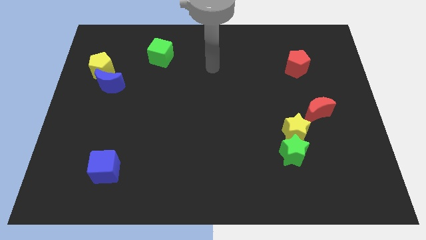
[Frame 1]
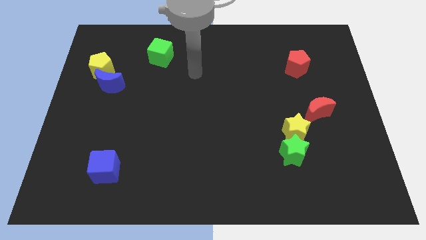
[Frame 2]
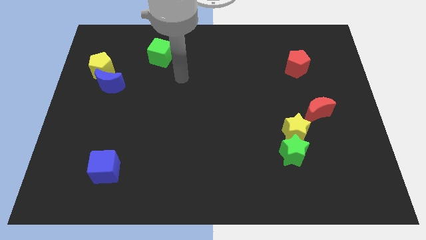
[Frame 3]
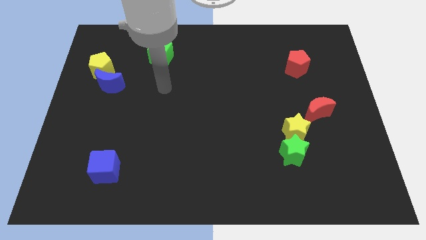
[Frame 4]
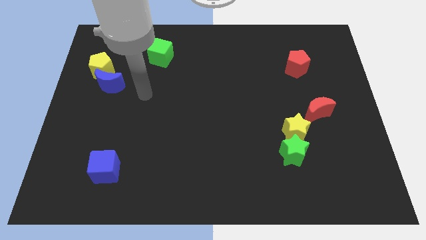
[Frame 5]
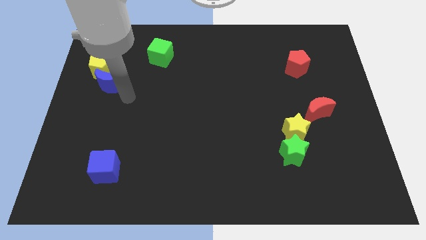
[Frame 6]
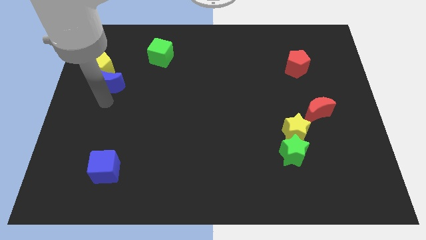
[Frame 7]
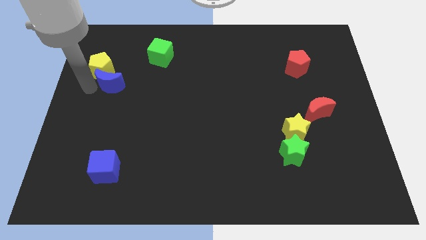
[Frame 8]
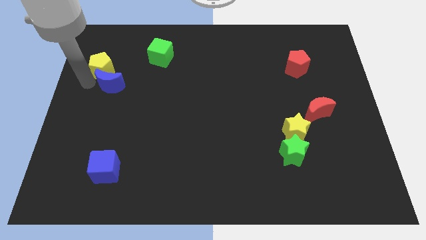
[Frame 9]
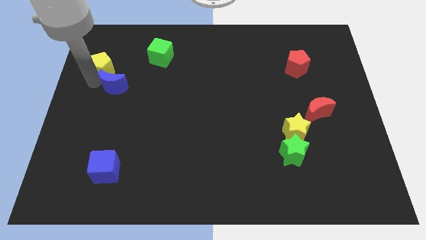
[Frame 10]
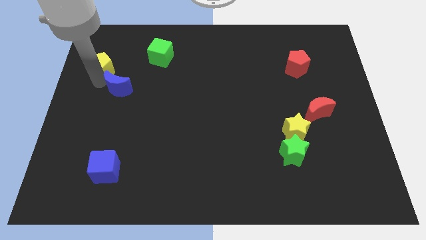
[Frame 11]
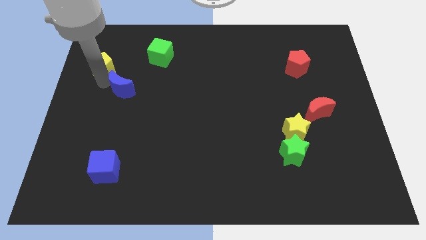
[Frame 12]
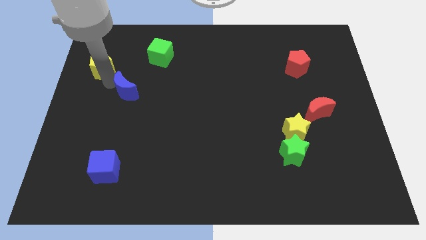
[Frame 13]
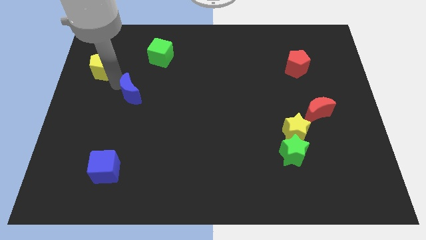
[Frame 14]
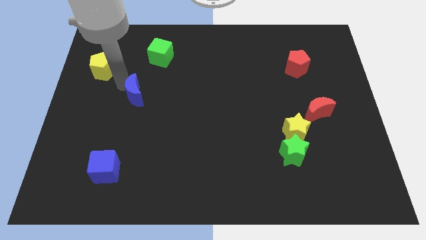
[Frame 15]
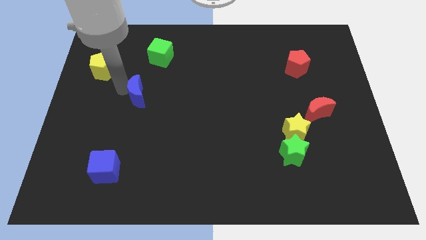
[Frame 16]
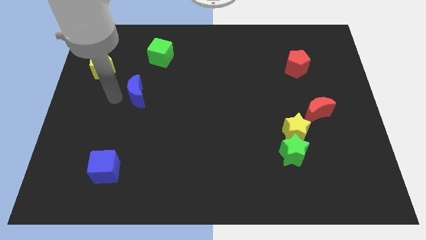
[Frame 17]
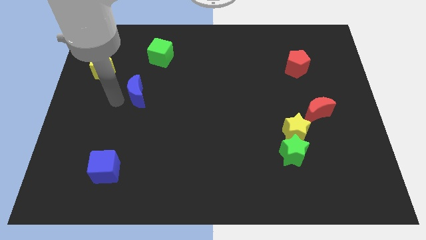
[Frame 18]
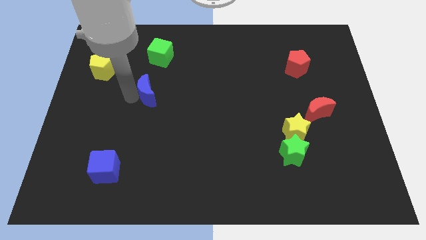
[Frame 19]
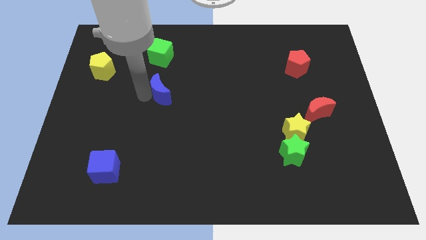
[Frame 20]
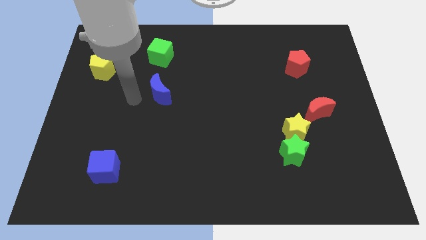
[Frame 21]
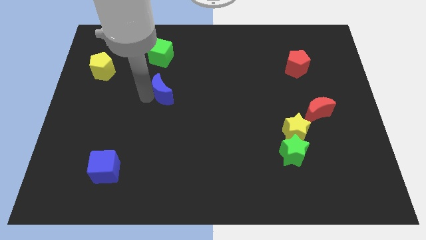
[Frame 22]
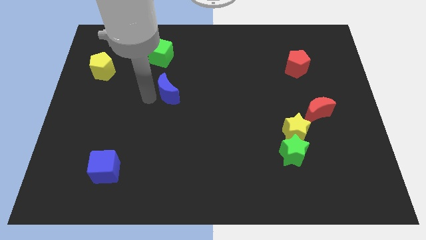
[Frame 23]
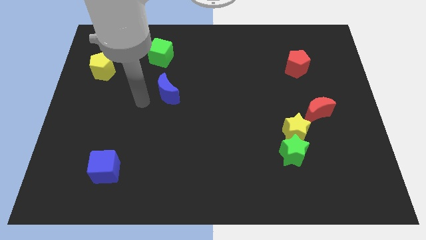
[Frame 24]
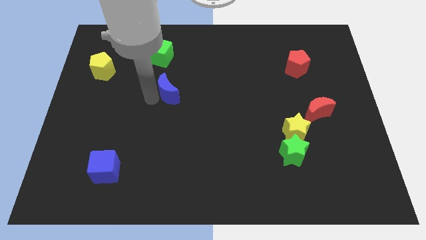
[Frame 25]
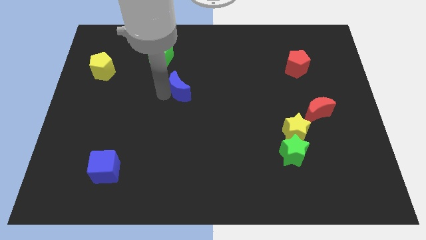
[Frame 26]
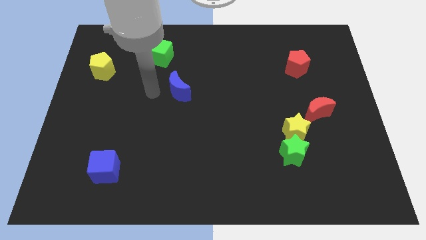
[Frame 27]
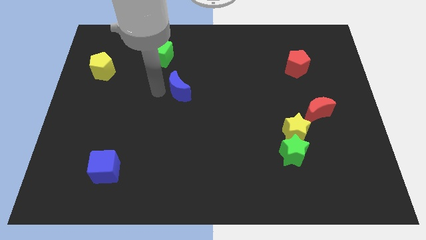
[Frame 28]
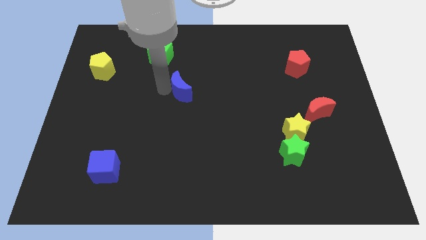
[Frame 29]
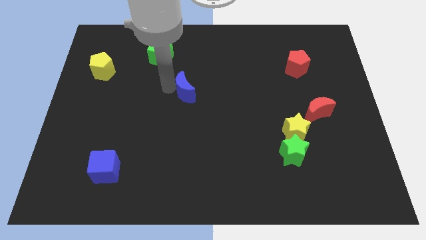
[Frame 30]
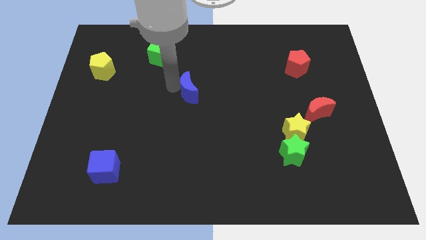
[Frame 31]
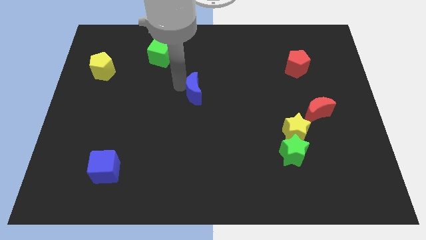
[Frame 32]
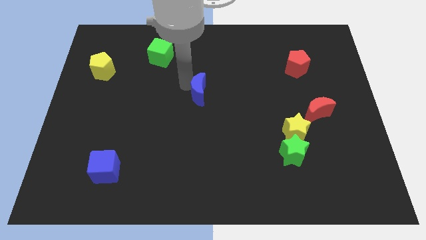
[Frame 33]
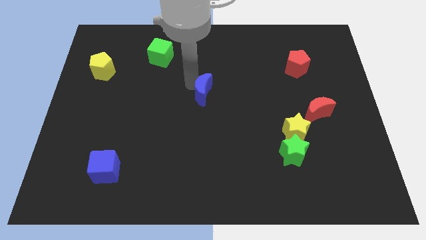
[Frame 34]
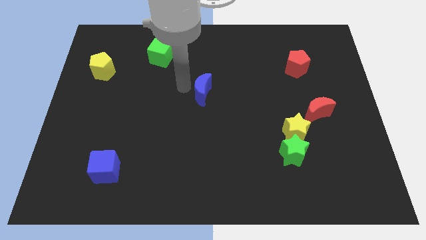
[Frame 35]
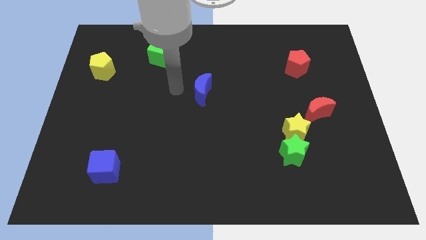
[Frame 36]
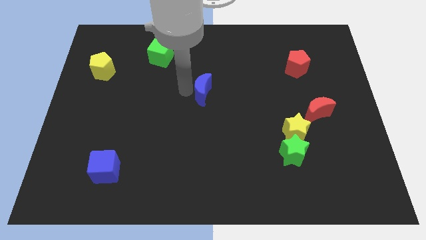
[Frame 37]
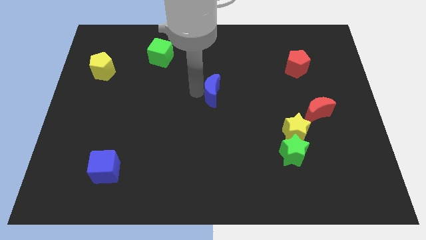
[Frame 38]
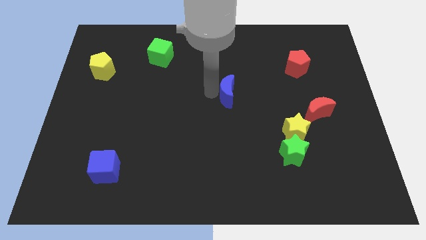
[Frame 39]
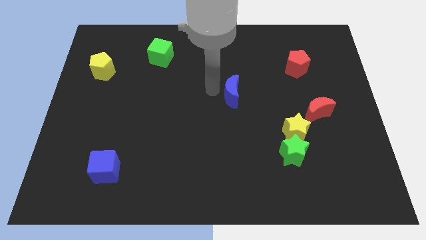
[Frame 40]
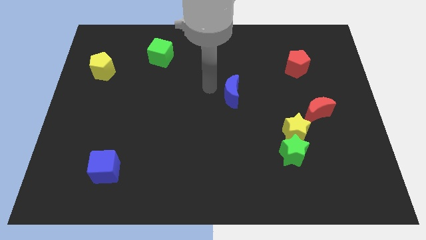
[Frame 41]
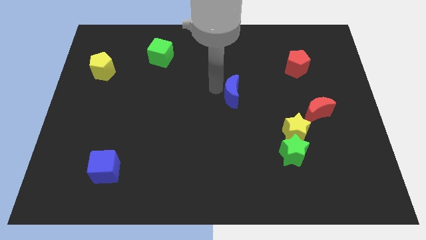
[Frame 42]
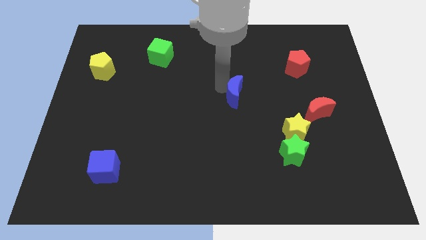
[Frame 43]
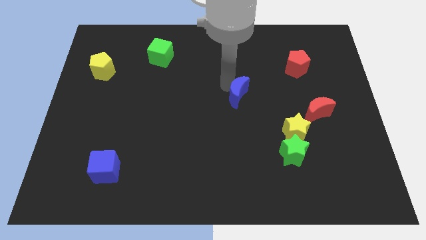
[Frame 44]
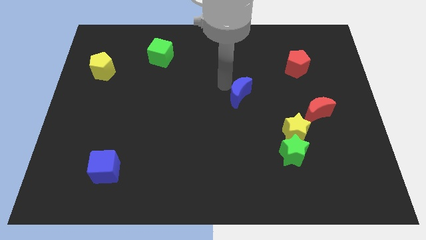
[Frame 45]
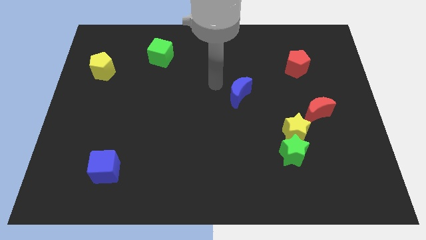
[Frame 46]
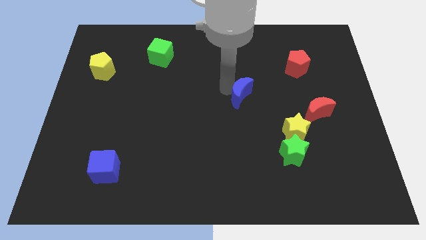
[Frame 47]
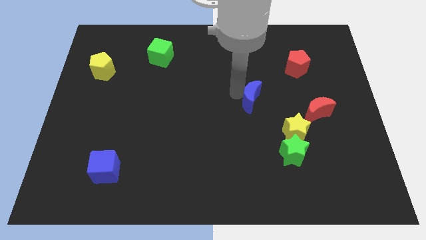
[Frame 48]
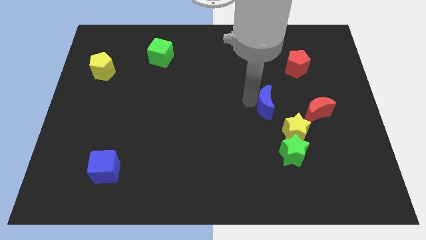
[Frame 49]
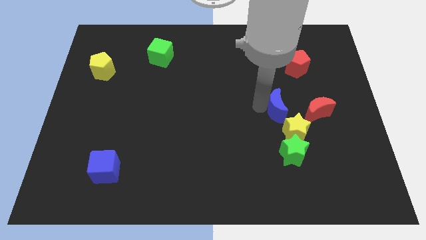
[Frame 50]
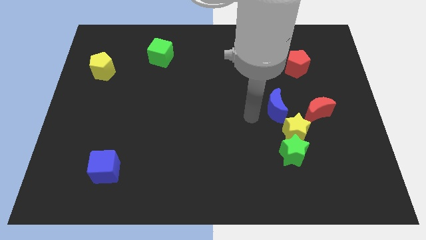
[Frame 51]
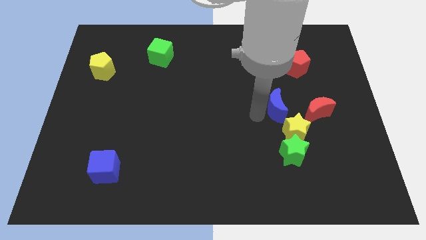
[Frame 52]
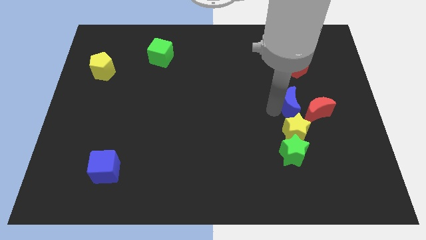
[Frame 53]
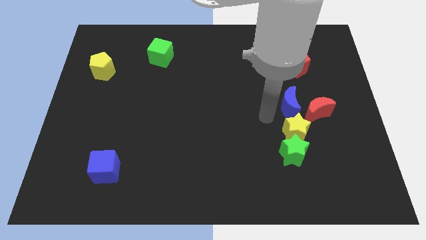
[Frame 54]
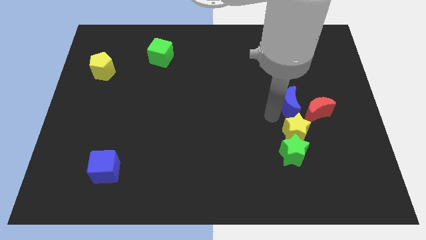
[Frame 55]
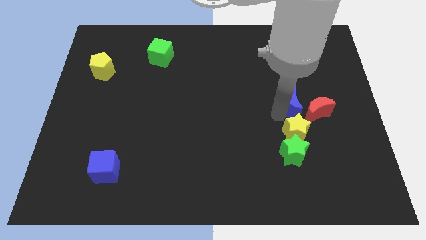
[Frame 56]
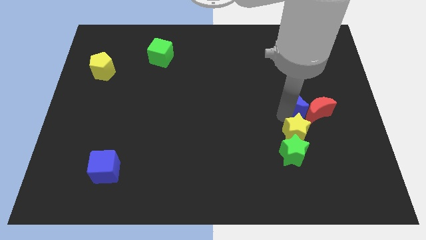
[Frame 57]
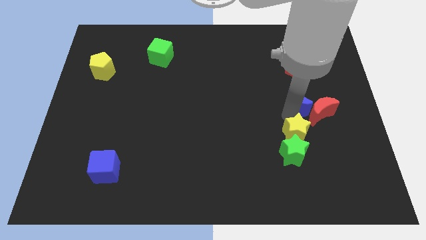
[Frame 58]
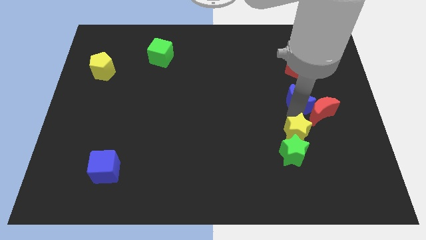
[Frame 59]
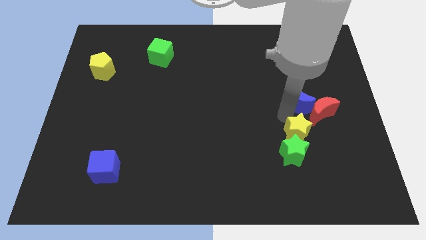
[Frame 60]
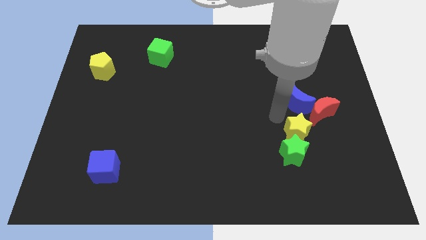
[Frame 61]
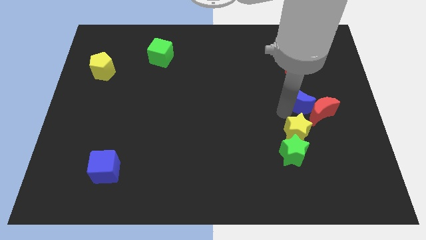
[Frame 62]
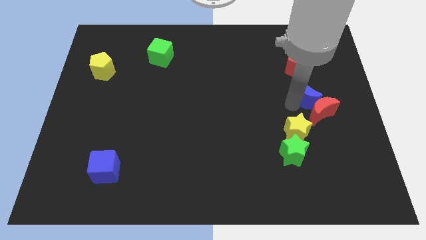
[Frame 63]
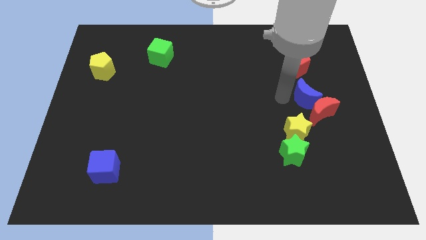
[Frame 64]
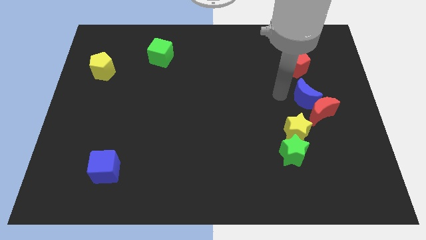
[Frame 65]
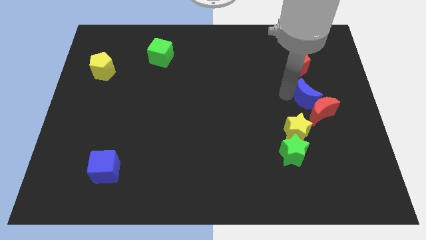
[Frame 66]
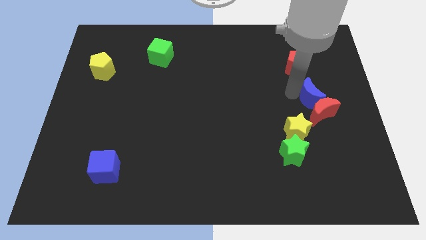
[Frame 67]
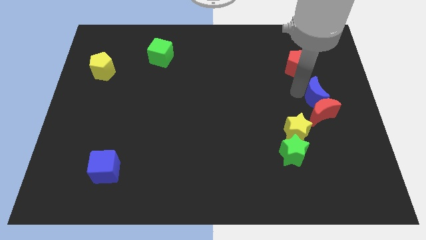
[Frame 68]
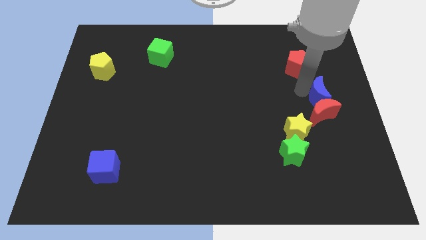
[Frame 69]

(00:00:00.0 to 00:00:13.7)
push the blue moon to the center right

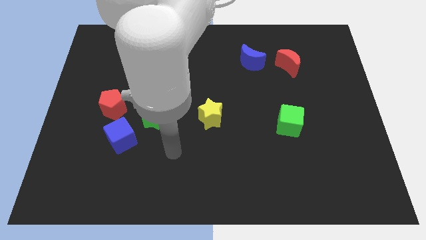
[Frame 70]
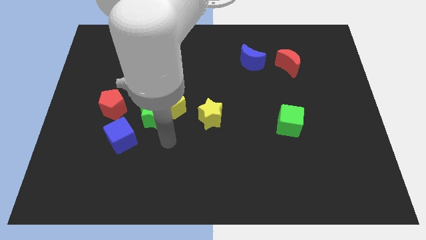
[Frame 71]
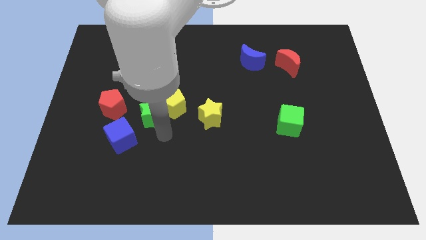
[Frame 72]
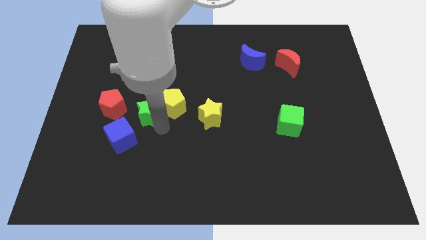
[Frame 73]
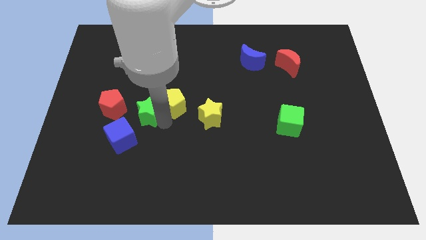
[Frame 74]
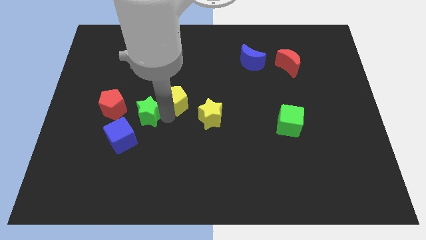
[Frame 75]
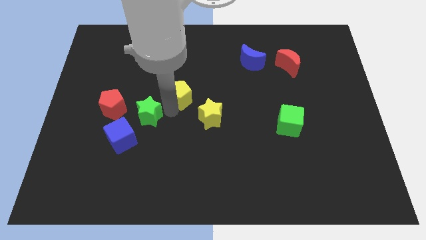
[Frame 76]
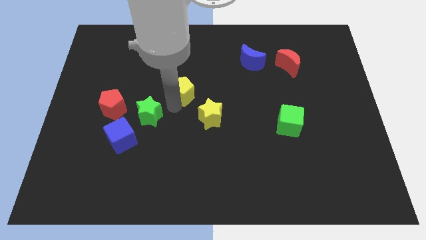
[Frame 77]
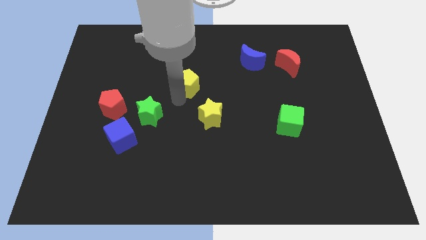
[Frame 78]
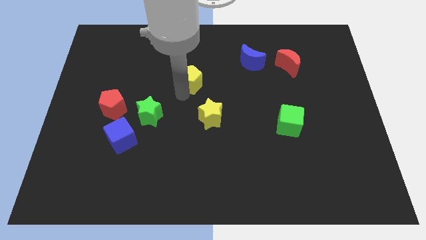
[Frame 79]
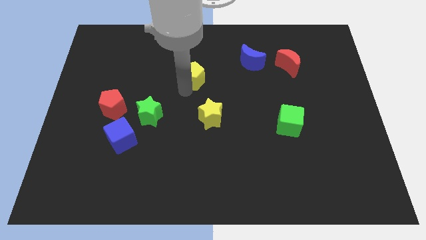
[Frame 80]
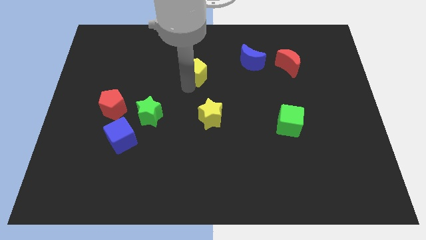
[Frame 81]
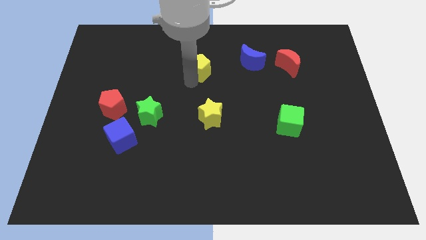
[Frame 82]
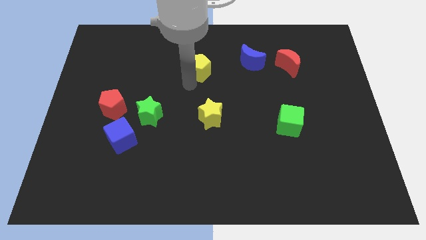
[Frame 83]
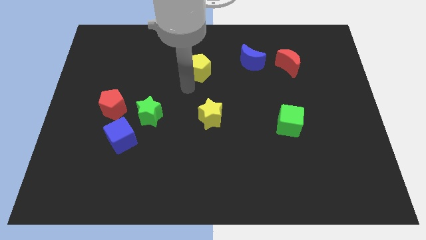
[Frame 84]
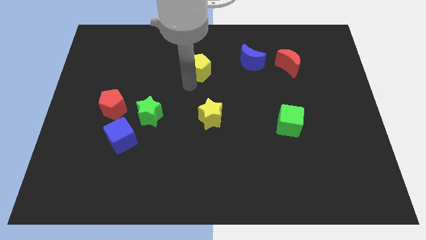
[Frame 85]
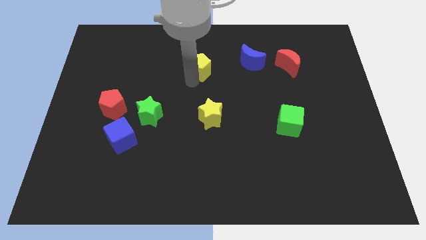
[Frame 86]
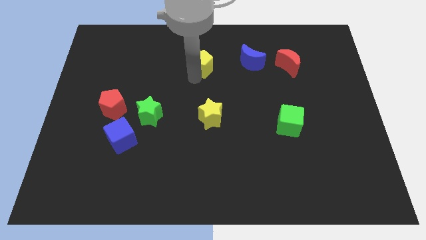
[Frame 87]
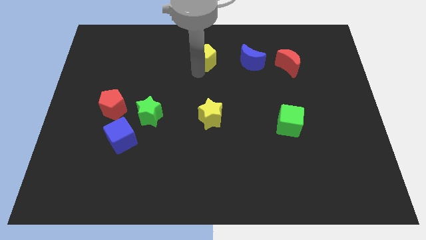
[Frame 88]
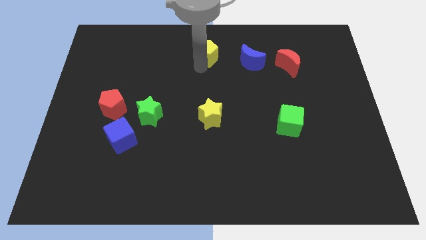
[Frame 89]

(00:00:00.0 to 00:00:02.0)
push the yellow pentagon to the towards your base
